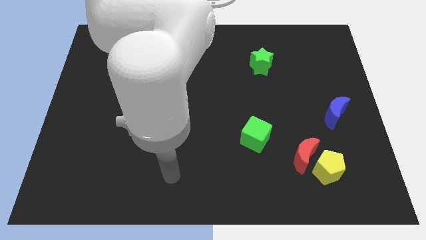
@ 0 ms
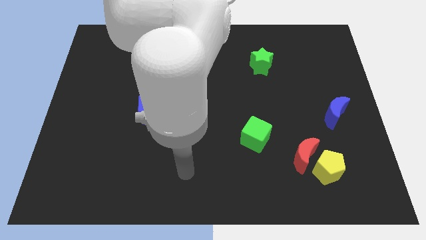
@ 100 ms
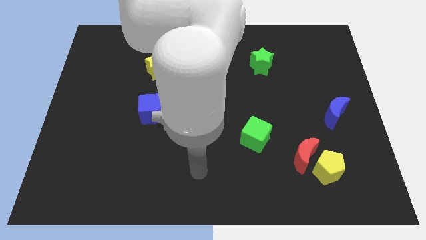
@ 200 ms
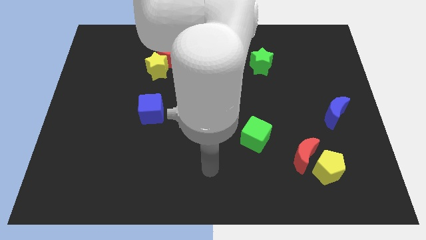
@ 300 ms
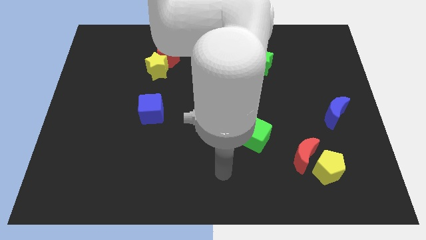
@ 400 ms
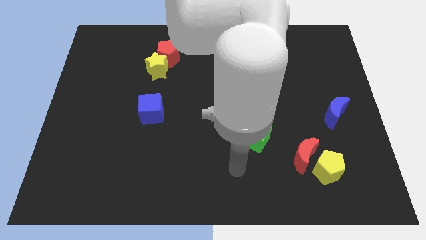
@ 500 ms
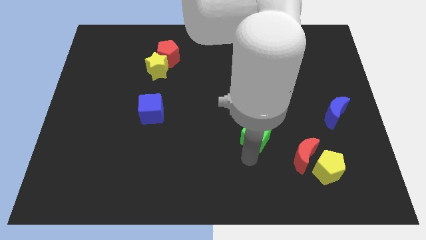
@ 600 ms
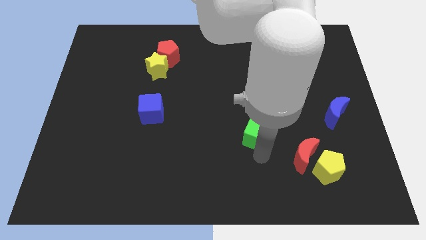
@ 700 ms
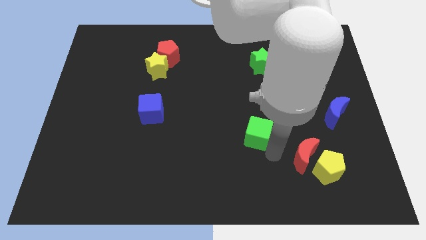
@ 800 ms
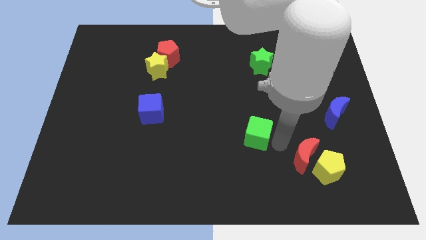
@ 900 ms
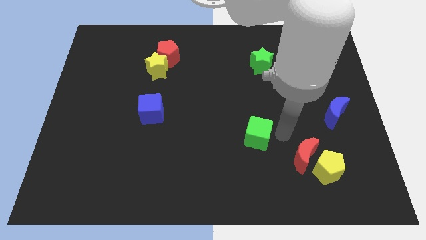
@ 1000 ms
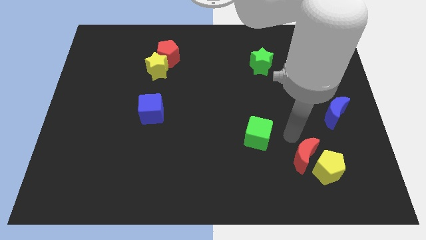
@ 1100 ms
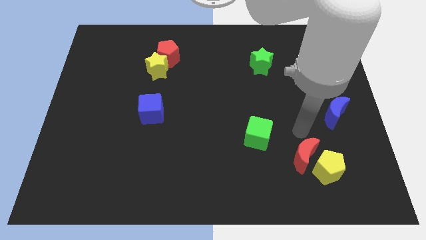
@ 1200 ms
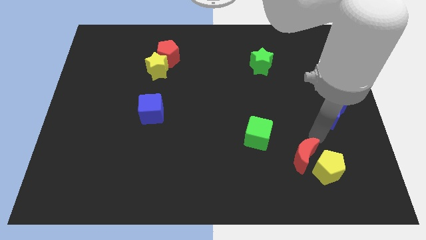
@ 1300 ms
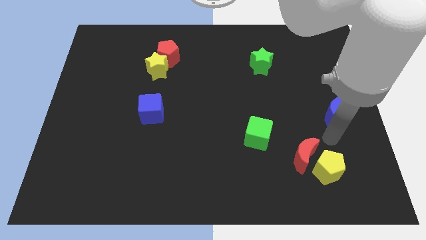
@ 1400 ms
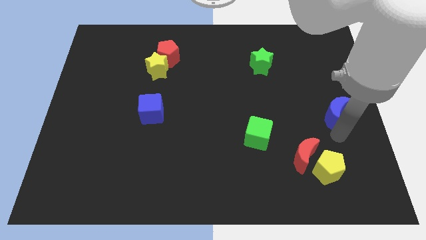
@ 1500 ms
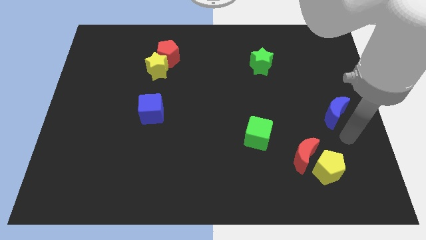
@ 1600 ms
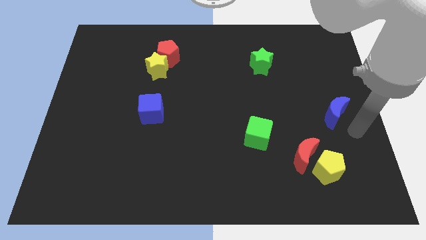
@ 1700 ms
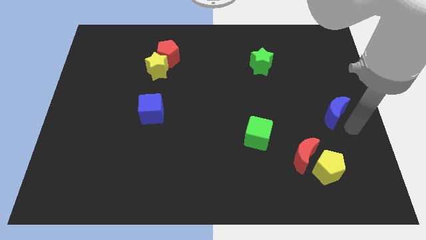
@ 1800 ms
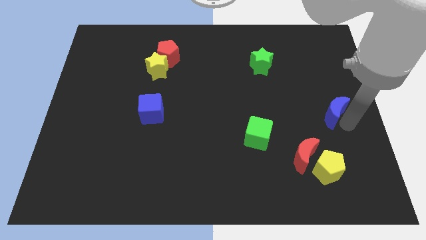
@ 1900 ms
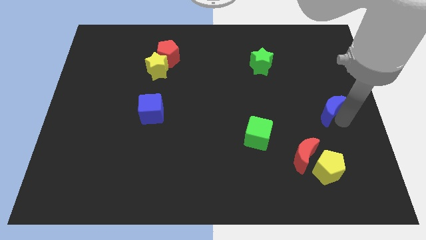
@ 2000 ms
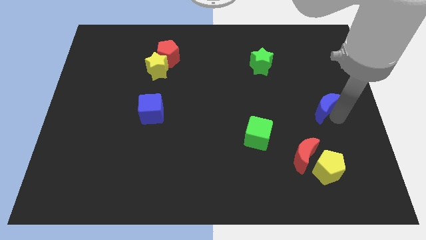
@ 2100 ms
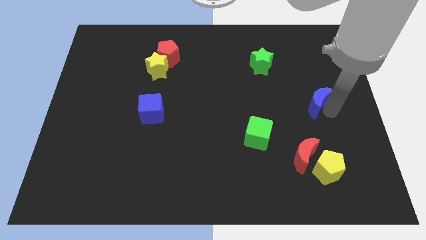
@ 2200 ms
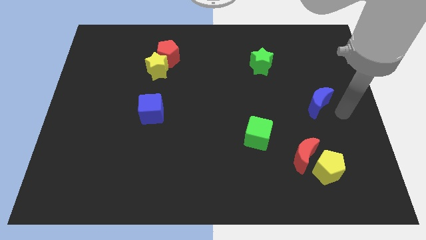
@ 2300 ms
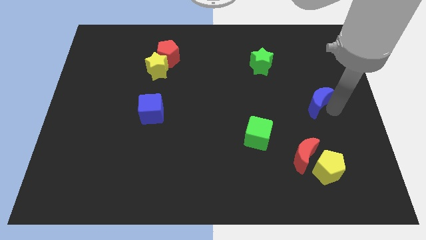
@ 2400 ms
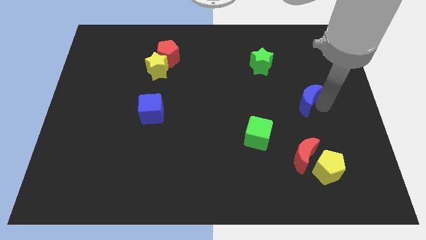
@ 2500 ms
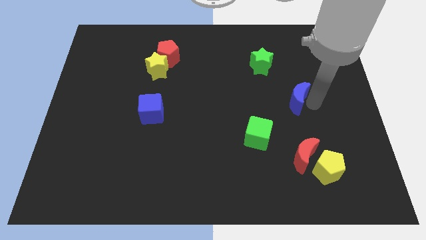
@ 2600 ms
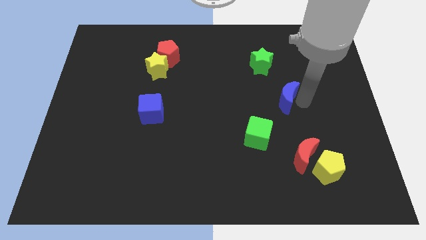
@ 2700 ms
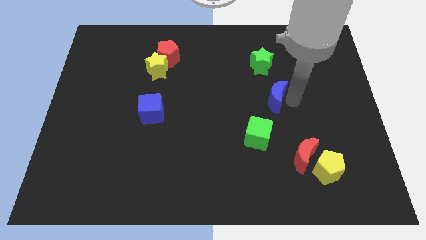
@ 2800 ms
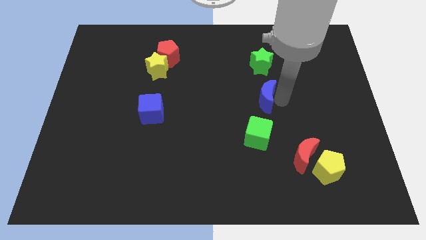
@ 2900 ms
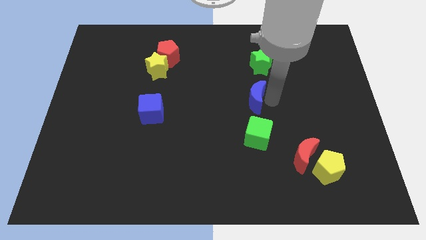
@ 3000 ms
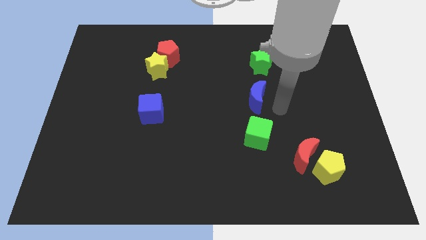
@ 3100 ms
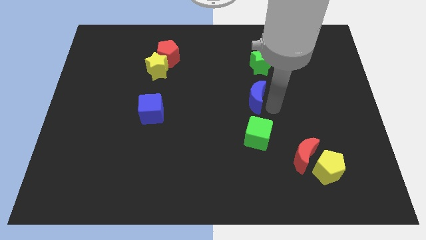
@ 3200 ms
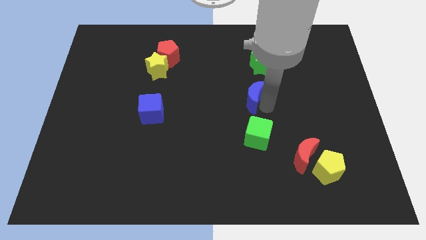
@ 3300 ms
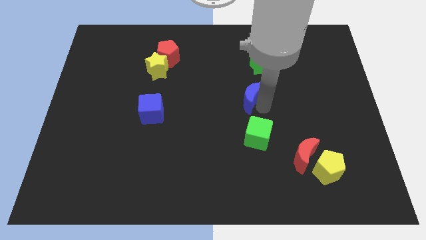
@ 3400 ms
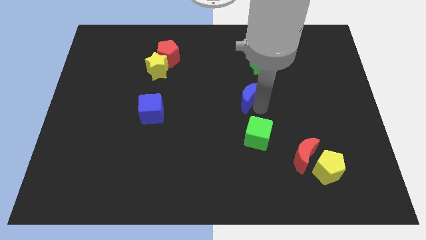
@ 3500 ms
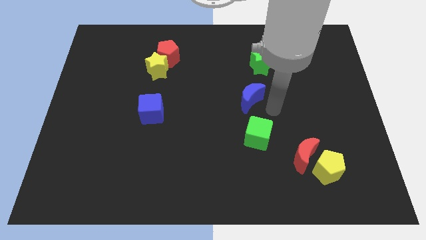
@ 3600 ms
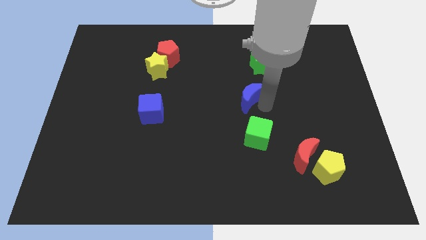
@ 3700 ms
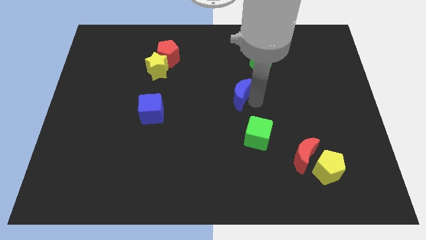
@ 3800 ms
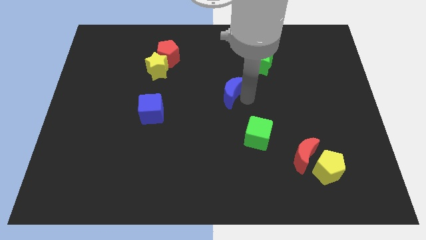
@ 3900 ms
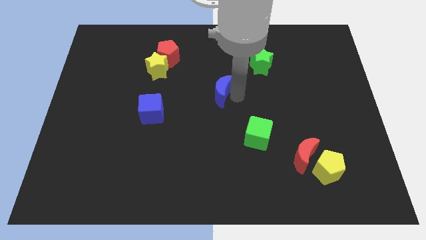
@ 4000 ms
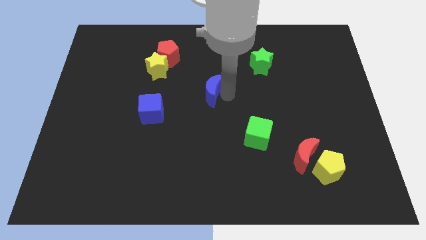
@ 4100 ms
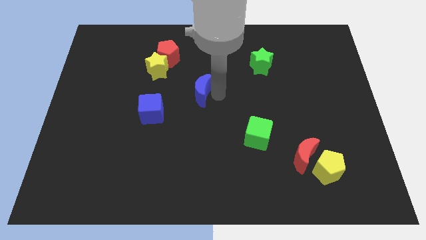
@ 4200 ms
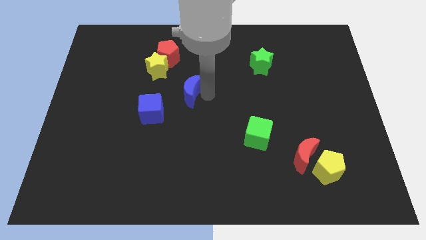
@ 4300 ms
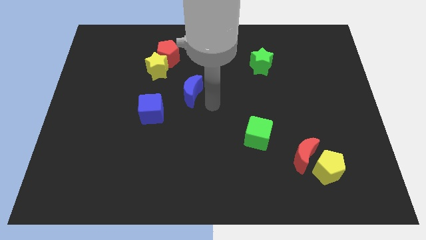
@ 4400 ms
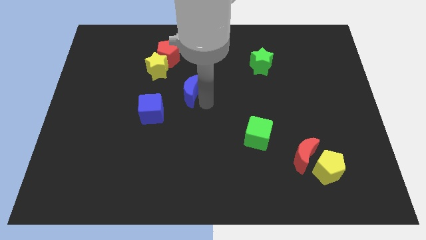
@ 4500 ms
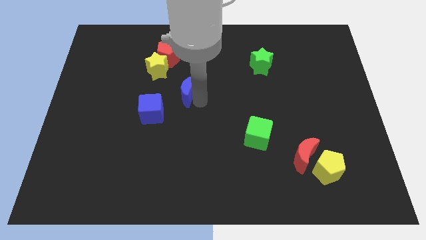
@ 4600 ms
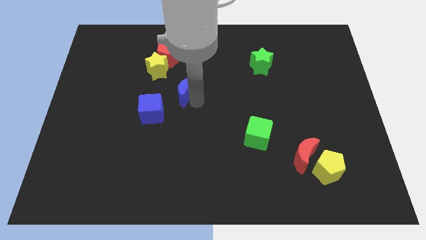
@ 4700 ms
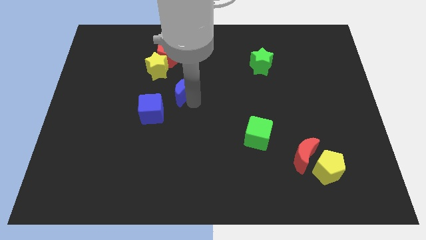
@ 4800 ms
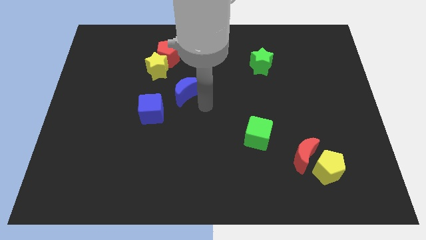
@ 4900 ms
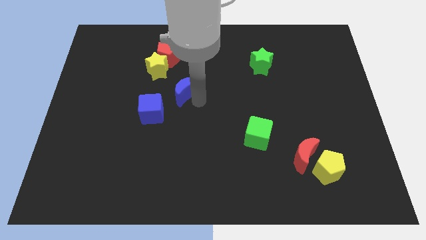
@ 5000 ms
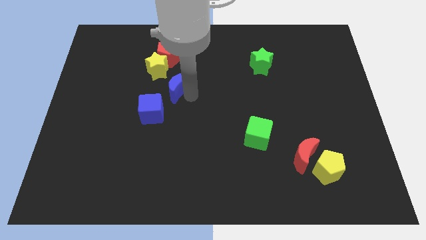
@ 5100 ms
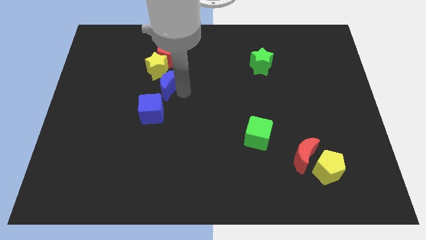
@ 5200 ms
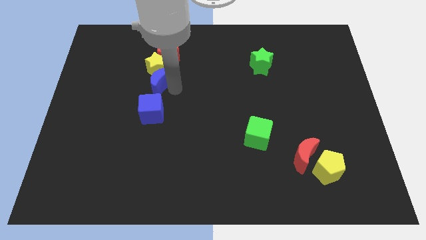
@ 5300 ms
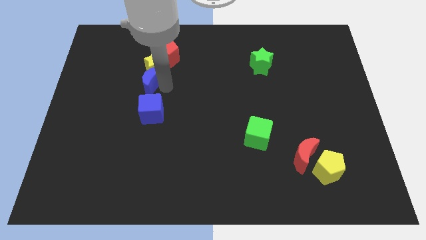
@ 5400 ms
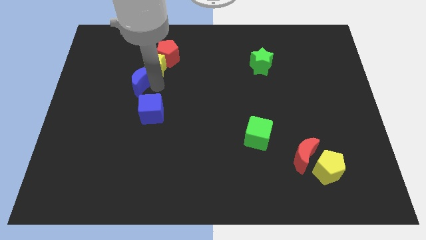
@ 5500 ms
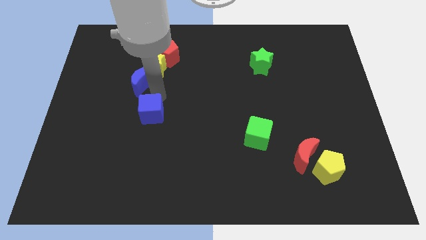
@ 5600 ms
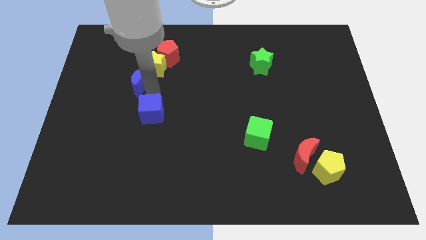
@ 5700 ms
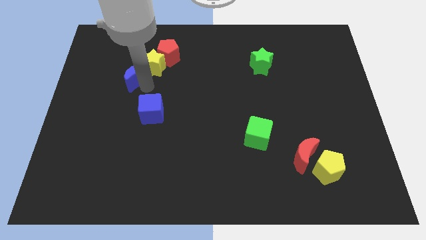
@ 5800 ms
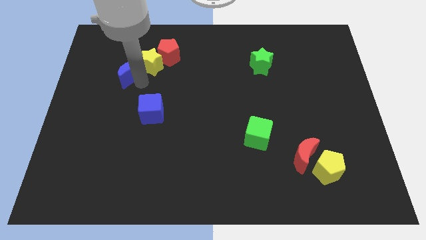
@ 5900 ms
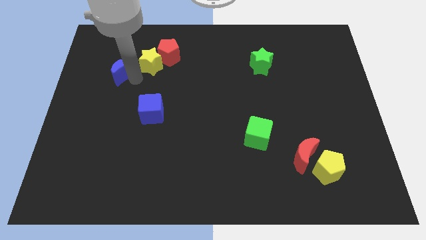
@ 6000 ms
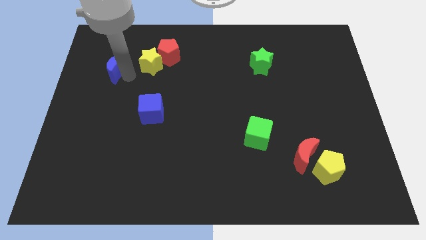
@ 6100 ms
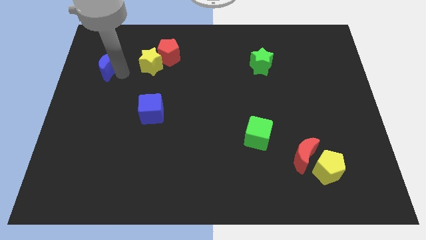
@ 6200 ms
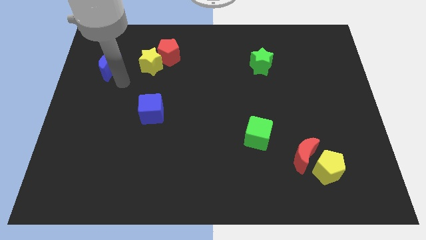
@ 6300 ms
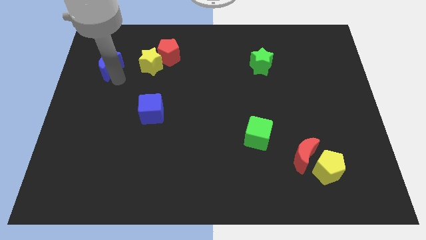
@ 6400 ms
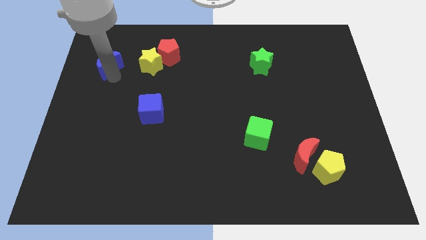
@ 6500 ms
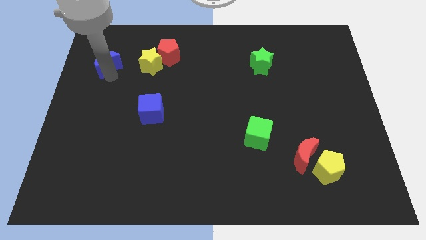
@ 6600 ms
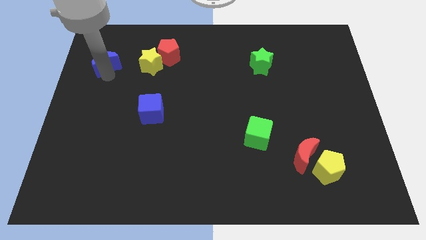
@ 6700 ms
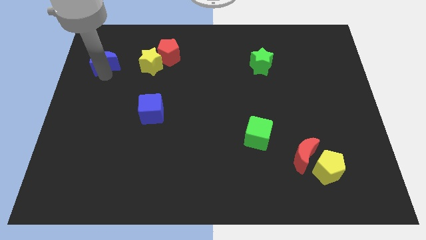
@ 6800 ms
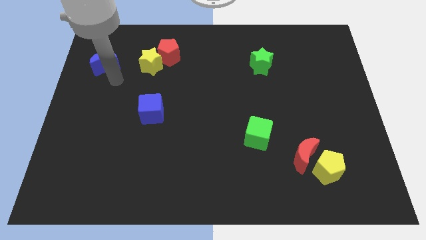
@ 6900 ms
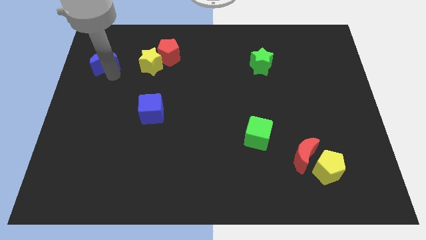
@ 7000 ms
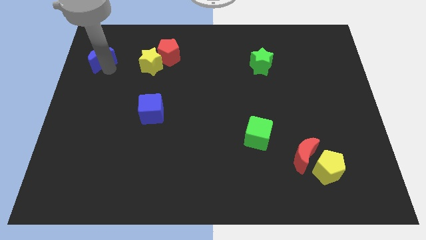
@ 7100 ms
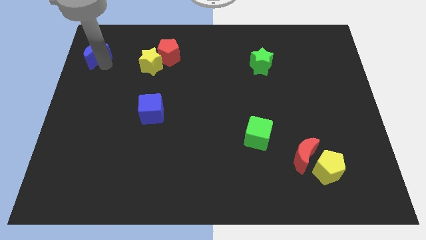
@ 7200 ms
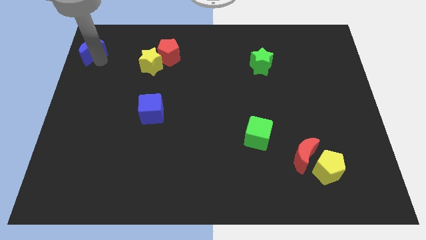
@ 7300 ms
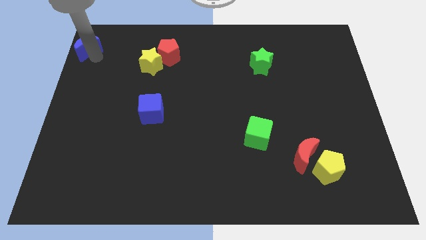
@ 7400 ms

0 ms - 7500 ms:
put the blue moon to the upper left corner
